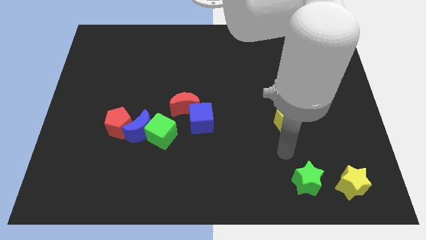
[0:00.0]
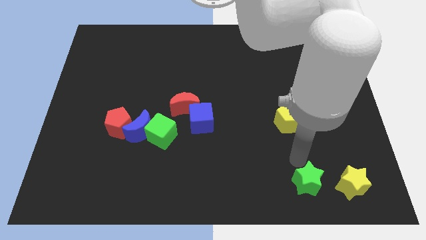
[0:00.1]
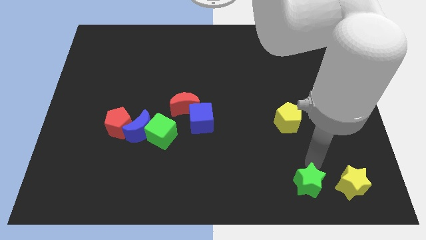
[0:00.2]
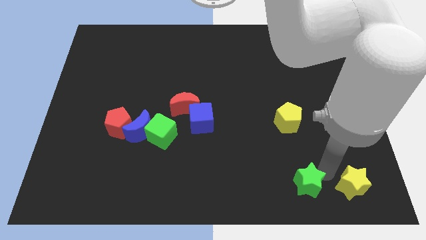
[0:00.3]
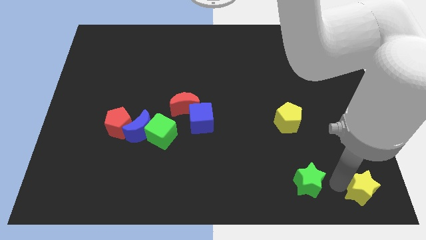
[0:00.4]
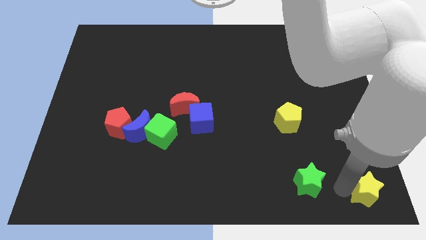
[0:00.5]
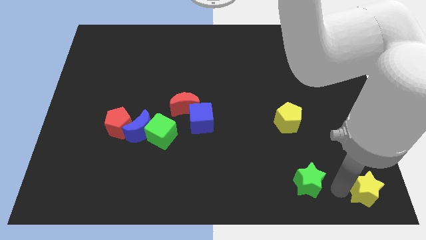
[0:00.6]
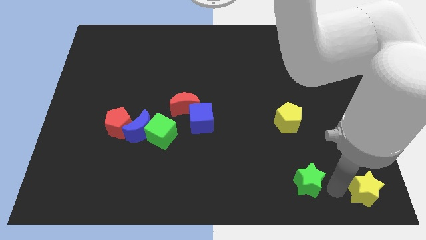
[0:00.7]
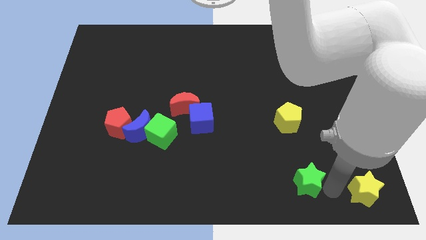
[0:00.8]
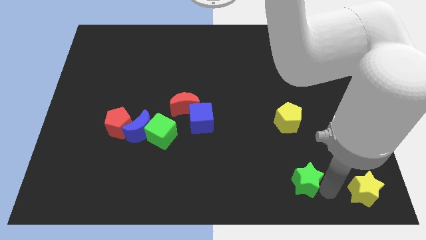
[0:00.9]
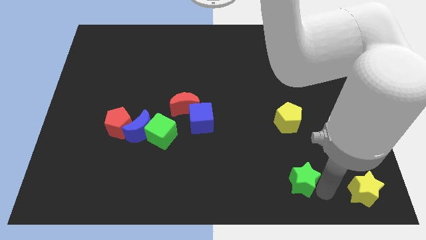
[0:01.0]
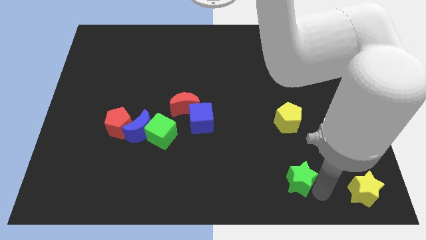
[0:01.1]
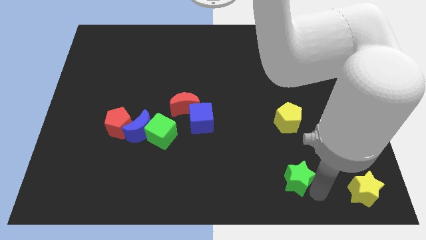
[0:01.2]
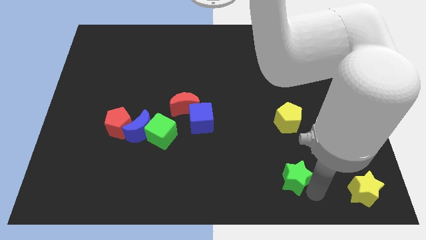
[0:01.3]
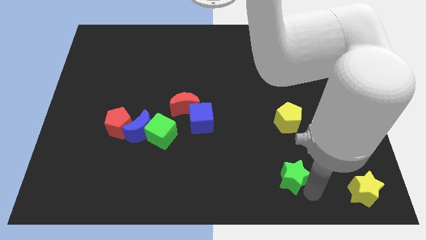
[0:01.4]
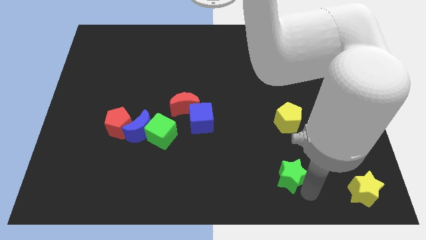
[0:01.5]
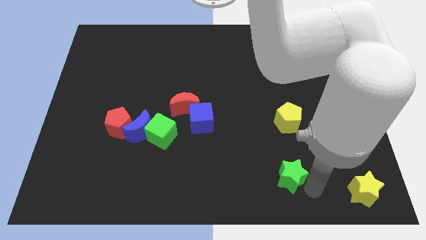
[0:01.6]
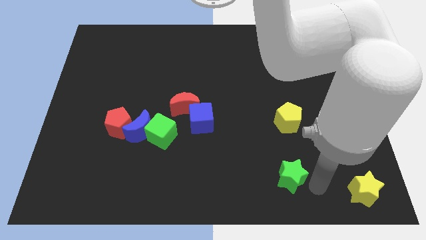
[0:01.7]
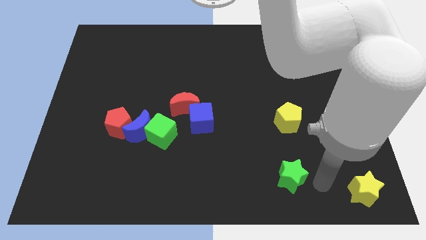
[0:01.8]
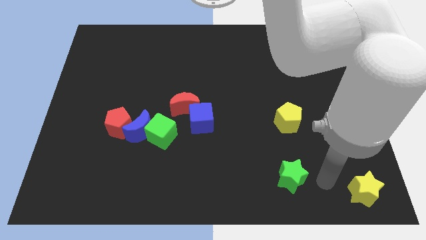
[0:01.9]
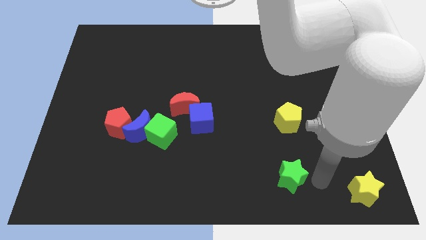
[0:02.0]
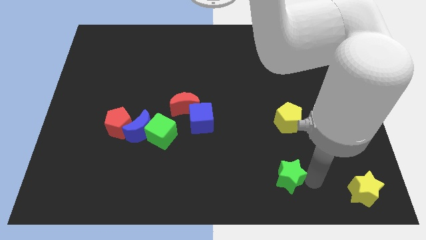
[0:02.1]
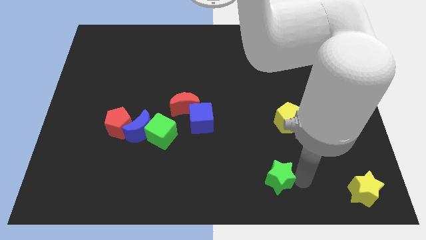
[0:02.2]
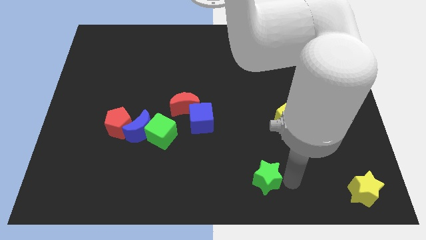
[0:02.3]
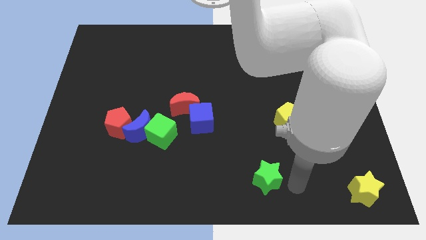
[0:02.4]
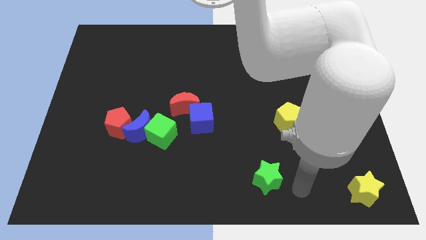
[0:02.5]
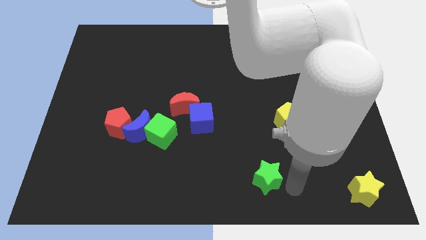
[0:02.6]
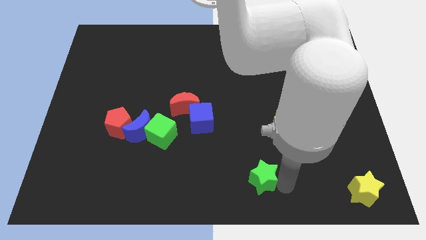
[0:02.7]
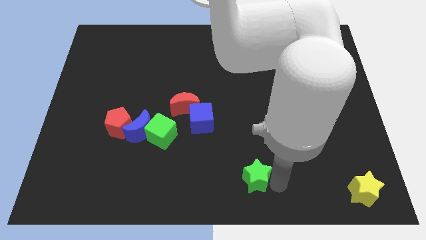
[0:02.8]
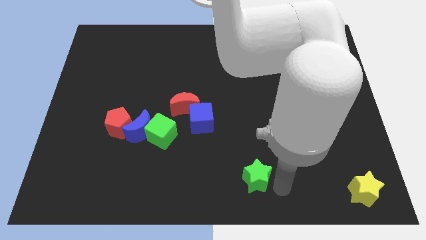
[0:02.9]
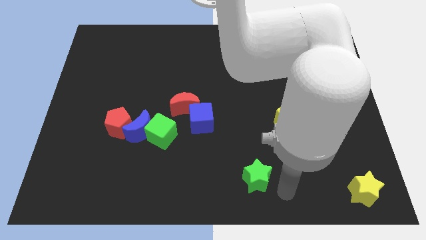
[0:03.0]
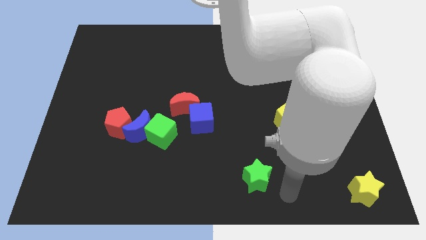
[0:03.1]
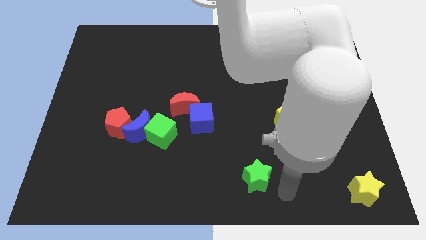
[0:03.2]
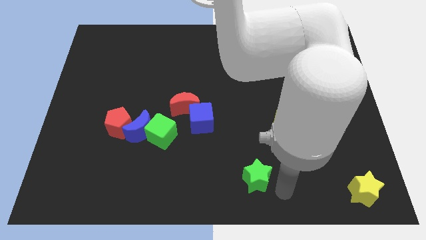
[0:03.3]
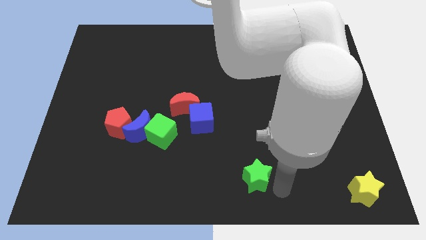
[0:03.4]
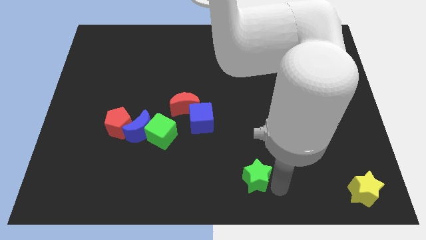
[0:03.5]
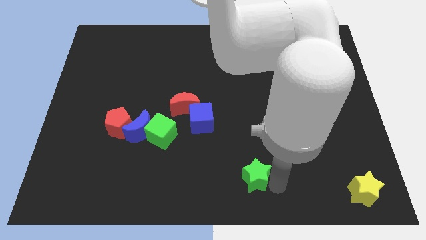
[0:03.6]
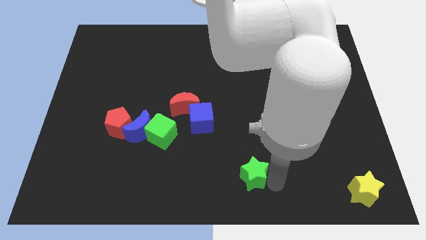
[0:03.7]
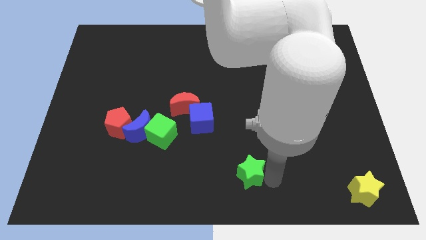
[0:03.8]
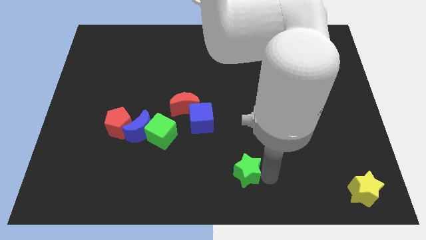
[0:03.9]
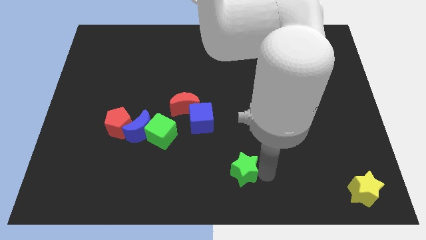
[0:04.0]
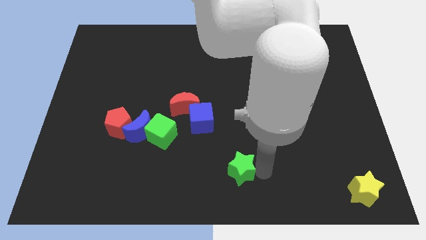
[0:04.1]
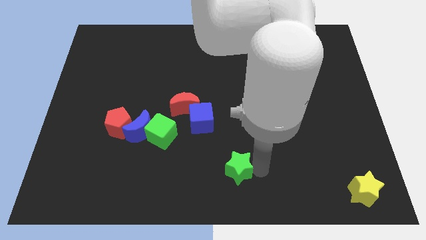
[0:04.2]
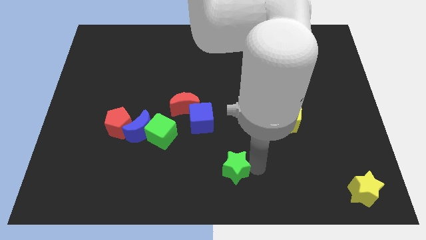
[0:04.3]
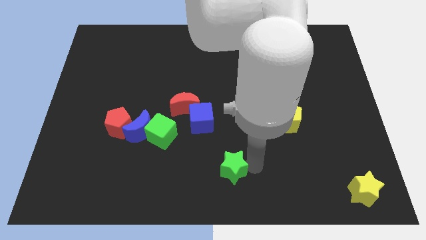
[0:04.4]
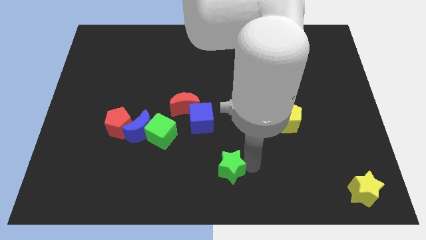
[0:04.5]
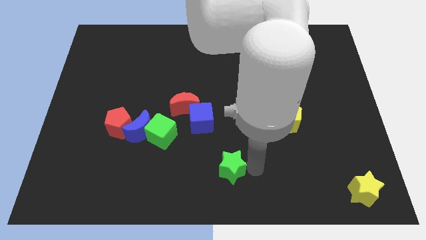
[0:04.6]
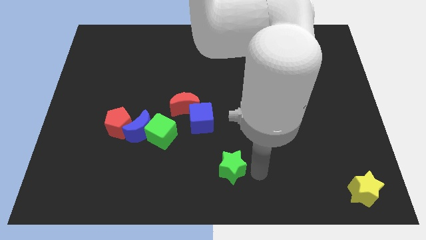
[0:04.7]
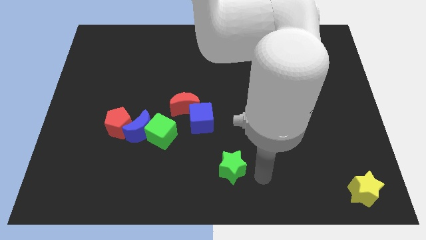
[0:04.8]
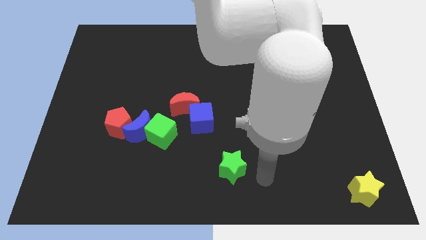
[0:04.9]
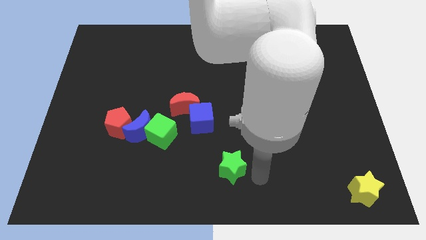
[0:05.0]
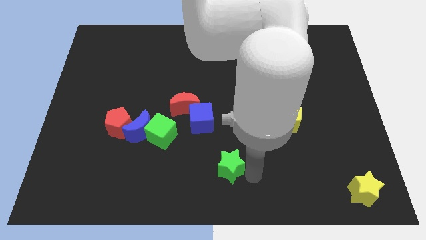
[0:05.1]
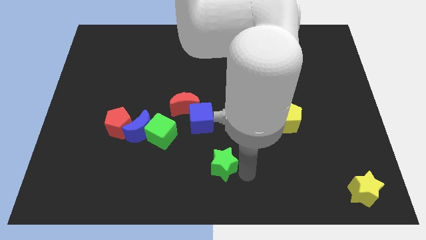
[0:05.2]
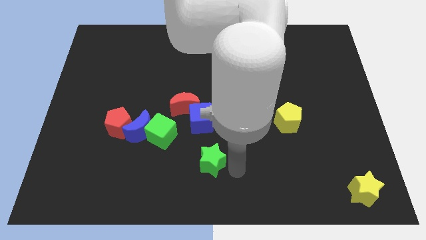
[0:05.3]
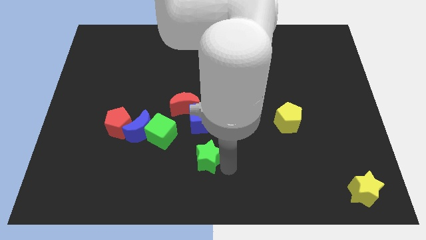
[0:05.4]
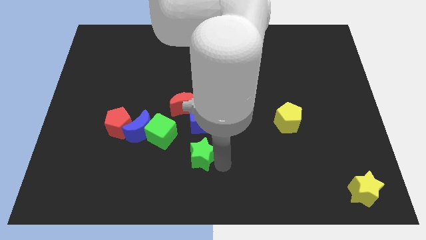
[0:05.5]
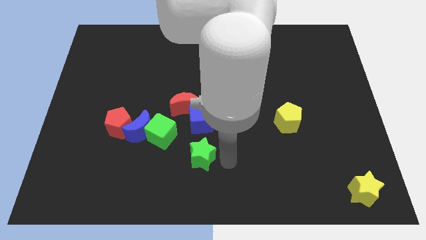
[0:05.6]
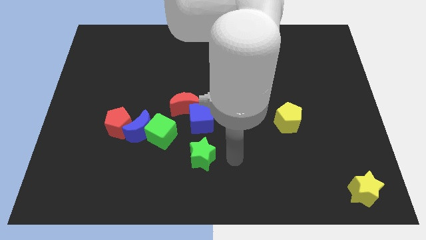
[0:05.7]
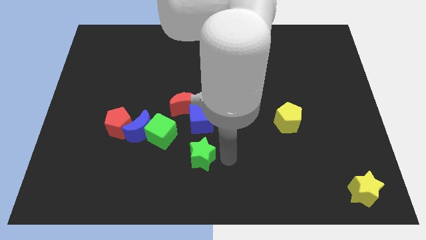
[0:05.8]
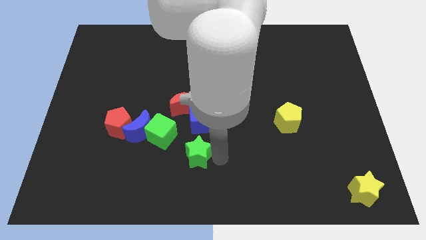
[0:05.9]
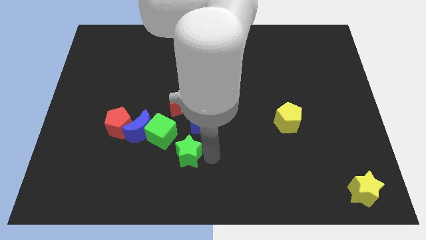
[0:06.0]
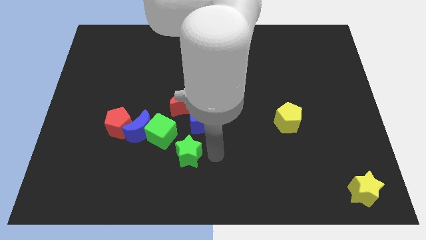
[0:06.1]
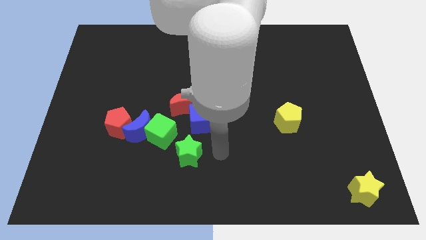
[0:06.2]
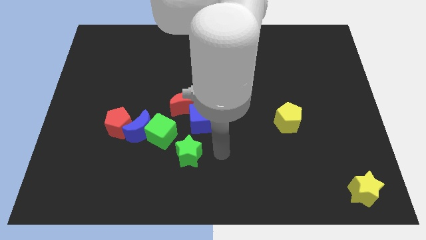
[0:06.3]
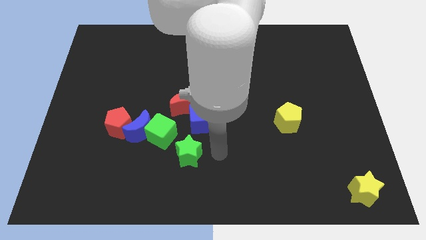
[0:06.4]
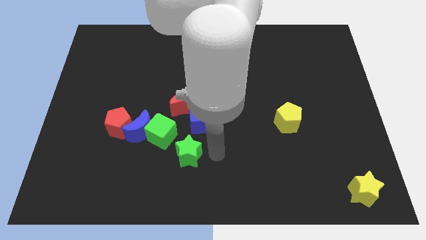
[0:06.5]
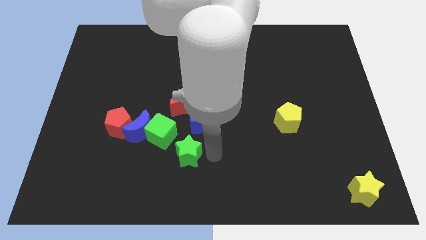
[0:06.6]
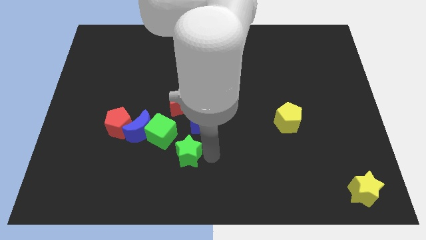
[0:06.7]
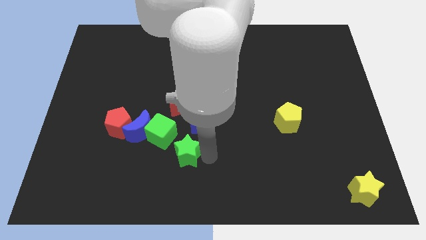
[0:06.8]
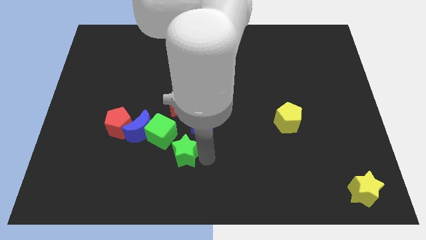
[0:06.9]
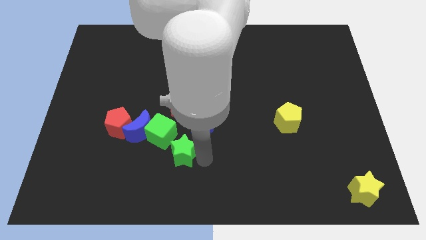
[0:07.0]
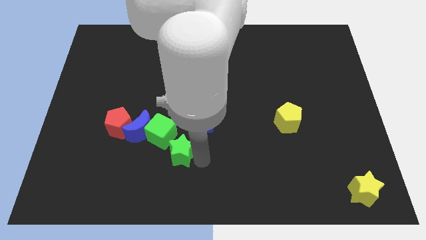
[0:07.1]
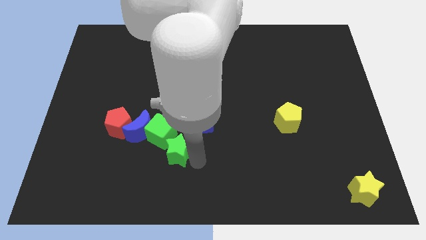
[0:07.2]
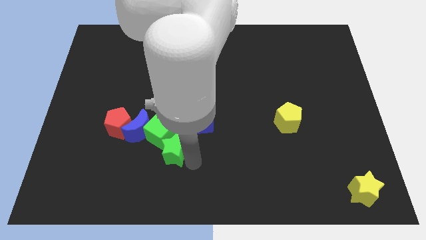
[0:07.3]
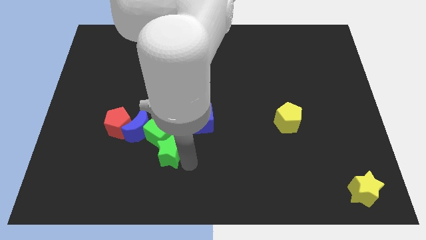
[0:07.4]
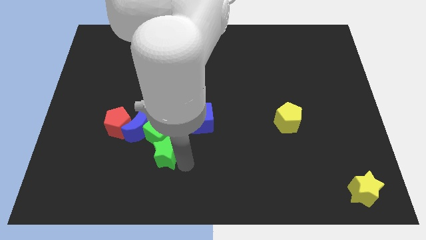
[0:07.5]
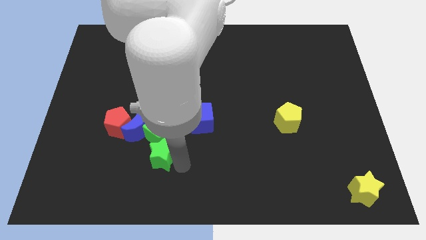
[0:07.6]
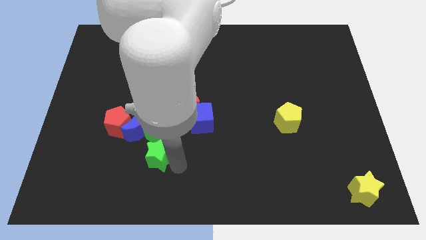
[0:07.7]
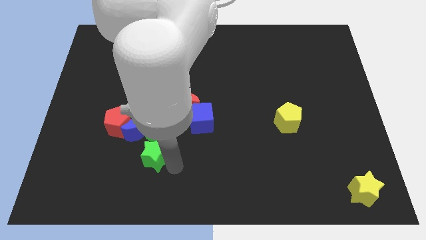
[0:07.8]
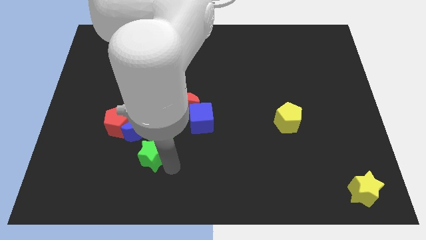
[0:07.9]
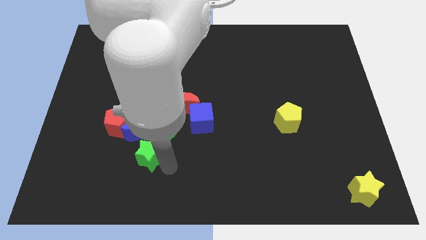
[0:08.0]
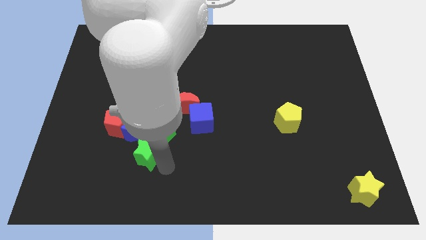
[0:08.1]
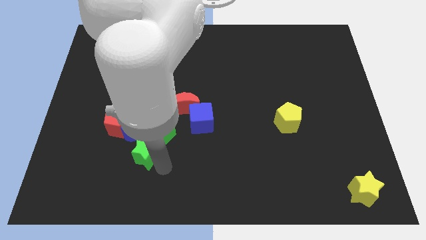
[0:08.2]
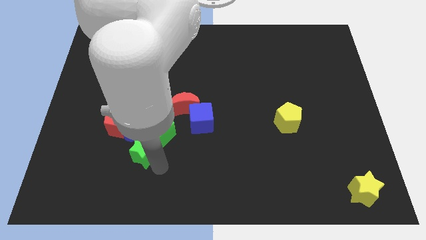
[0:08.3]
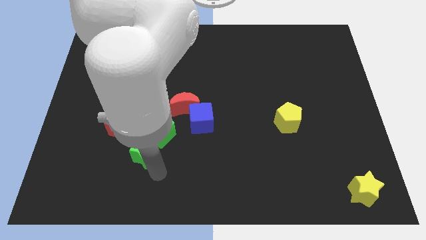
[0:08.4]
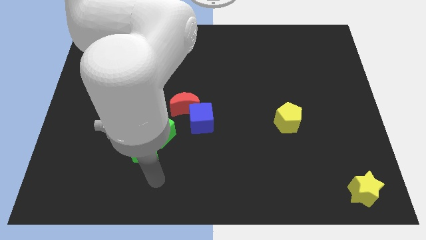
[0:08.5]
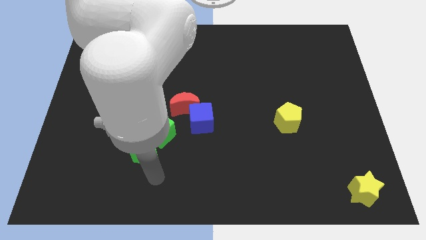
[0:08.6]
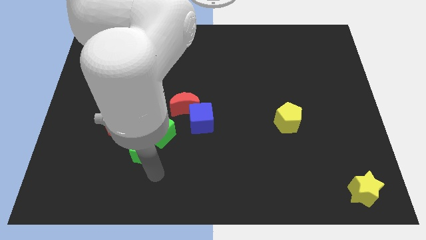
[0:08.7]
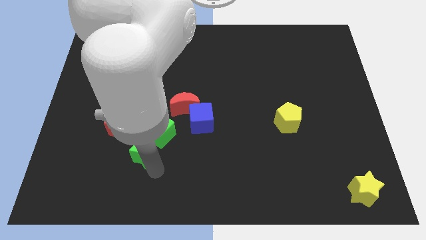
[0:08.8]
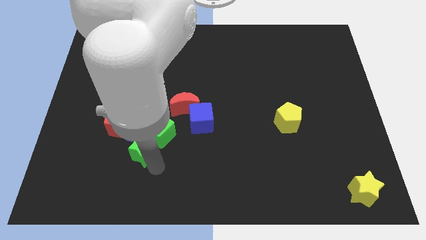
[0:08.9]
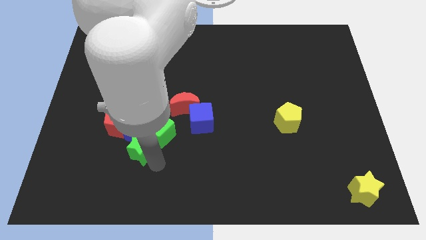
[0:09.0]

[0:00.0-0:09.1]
push the green star towards the blue moon
